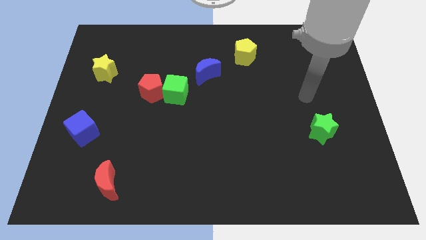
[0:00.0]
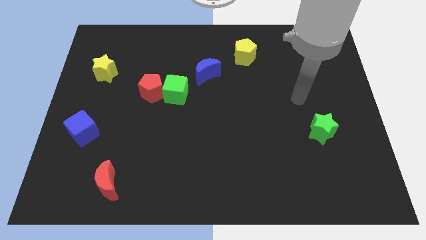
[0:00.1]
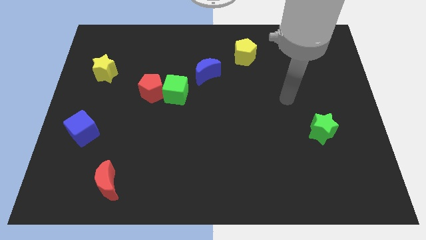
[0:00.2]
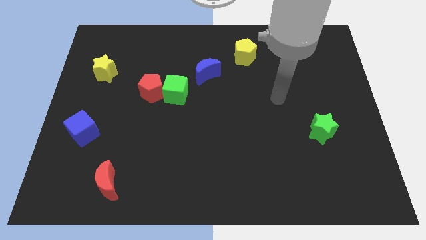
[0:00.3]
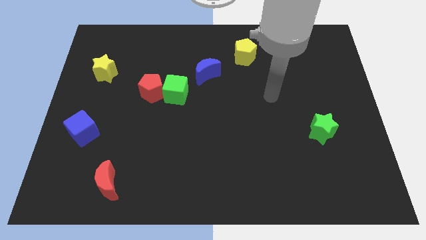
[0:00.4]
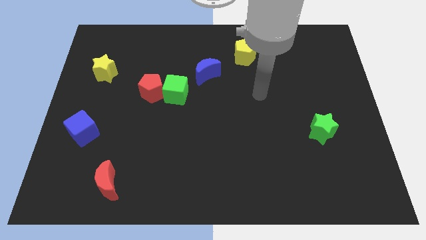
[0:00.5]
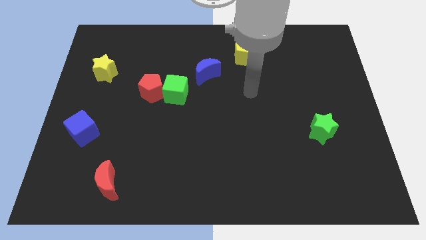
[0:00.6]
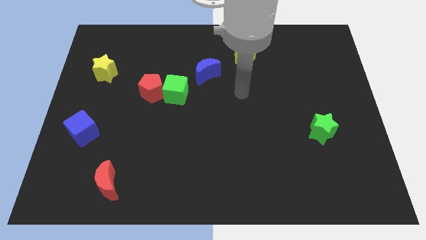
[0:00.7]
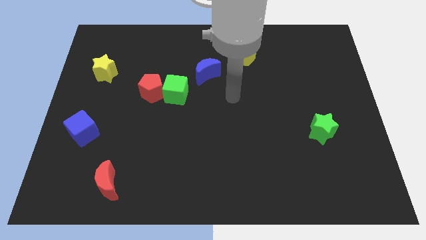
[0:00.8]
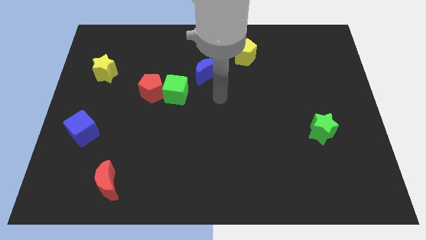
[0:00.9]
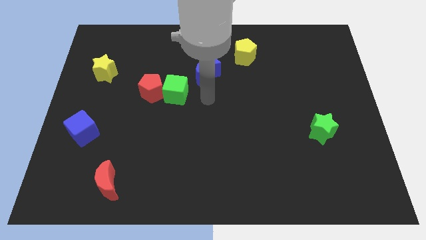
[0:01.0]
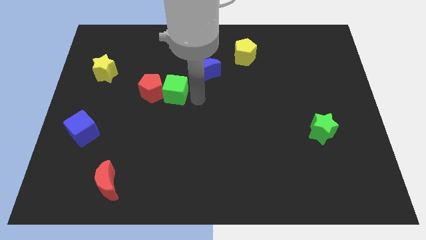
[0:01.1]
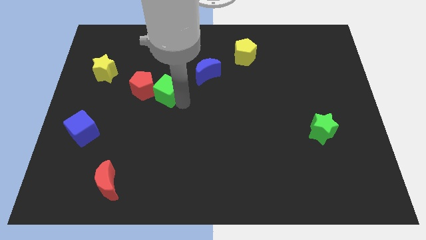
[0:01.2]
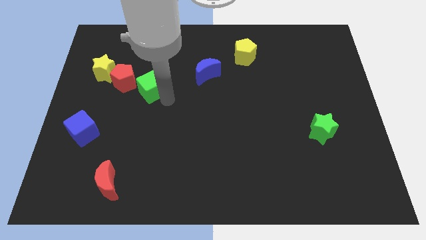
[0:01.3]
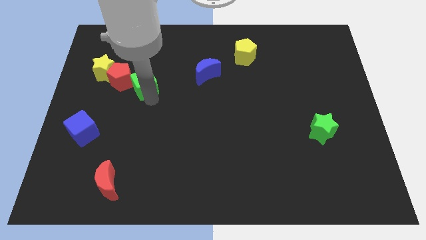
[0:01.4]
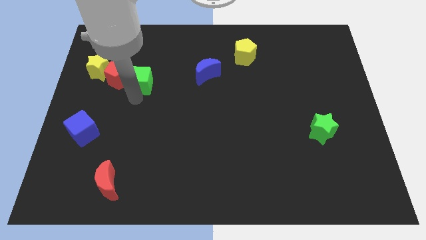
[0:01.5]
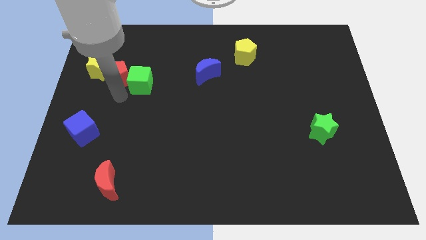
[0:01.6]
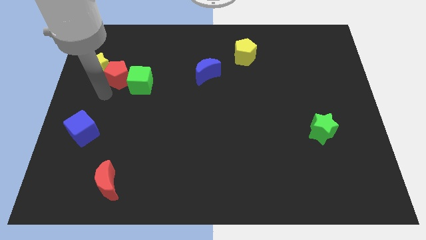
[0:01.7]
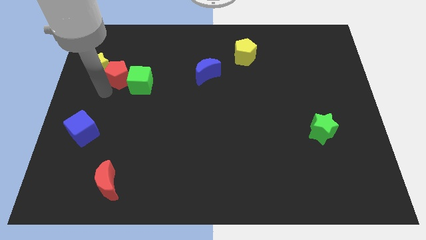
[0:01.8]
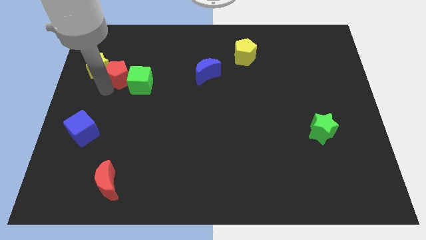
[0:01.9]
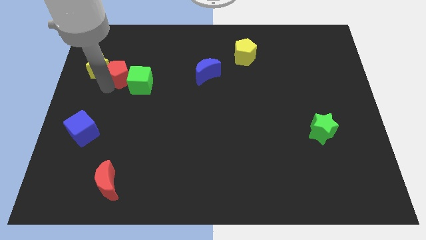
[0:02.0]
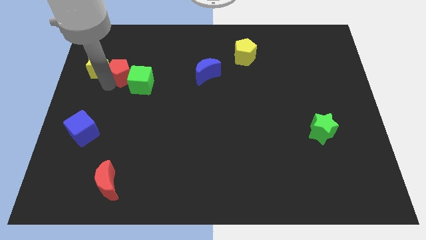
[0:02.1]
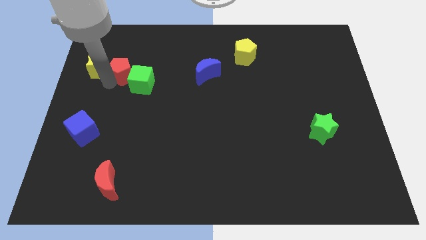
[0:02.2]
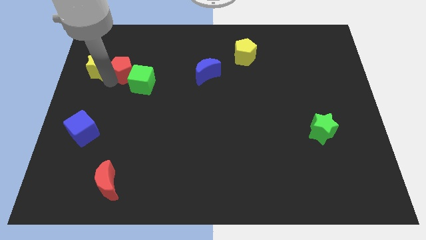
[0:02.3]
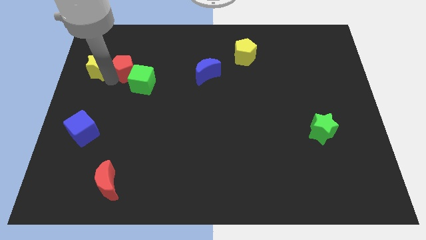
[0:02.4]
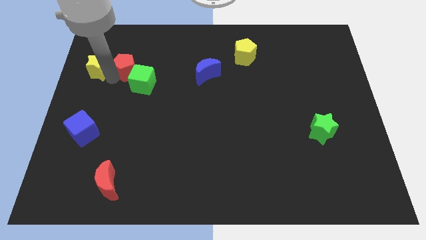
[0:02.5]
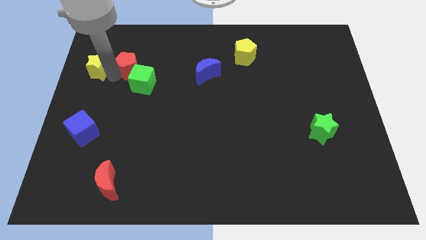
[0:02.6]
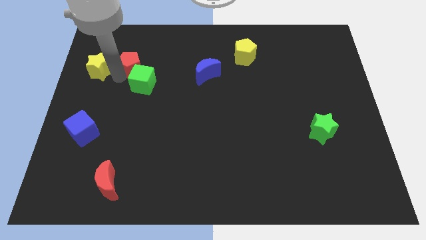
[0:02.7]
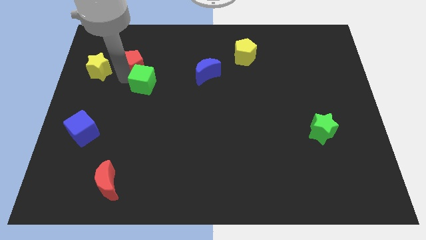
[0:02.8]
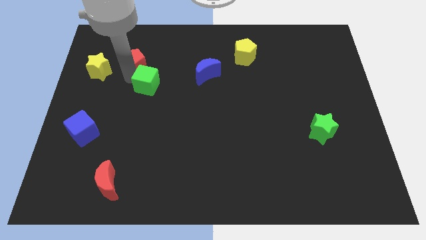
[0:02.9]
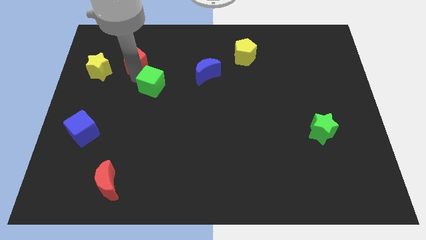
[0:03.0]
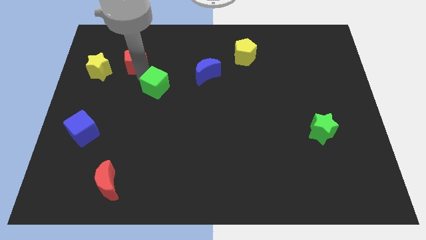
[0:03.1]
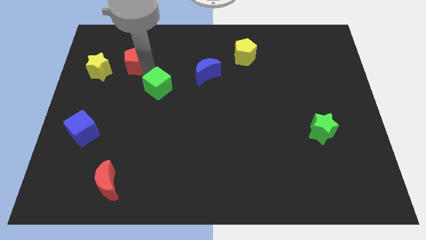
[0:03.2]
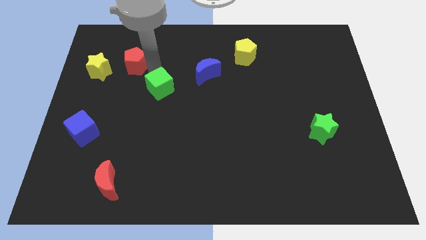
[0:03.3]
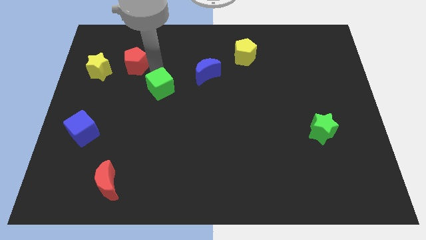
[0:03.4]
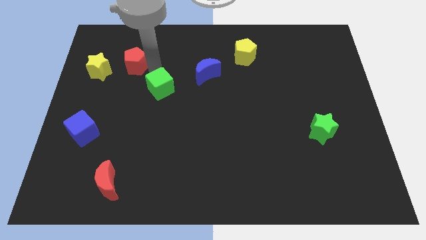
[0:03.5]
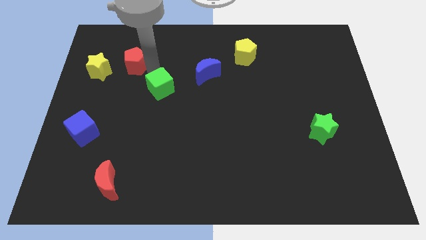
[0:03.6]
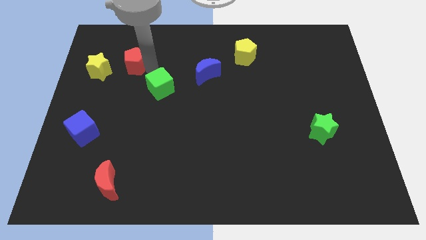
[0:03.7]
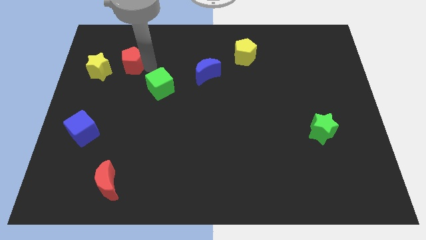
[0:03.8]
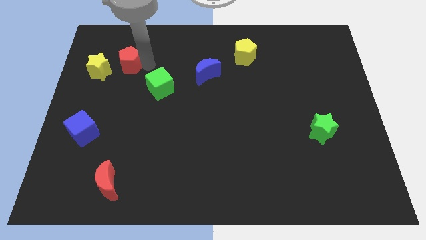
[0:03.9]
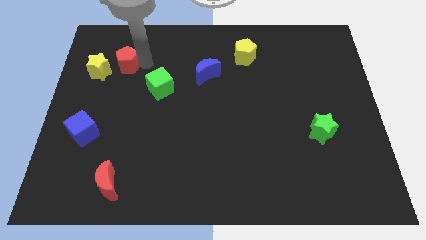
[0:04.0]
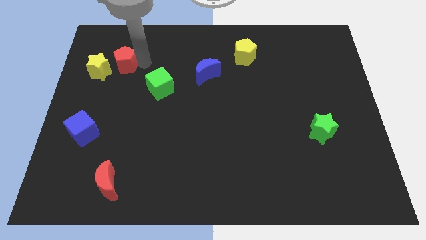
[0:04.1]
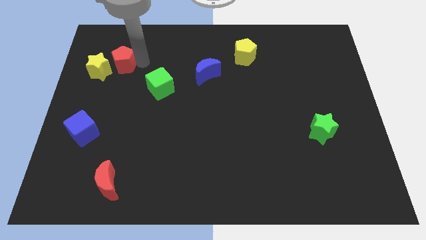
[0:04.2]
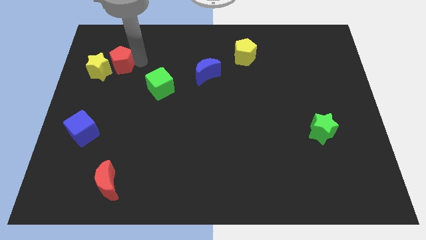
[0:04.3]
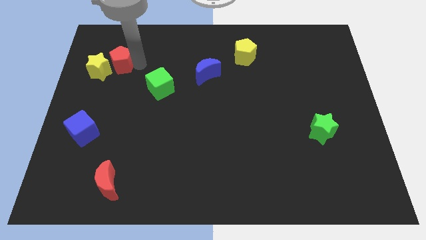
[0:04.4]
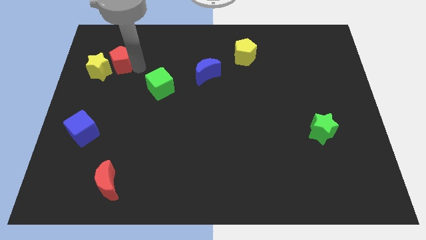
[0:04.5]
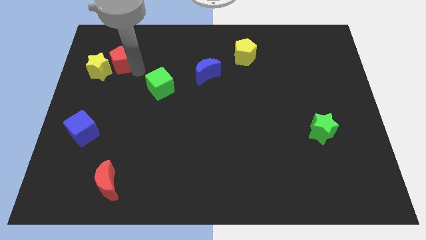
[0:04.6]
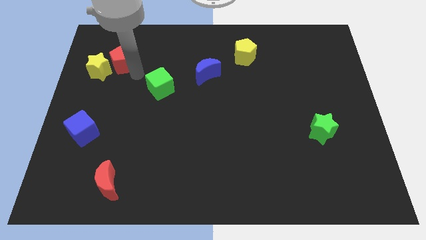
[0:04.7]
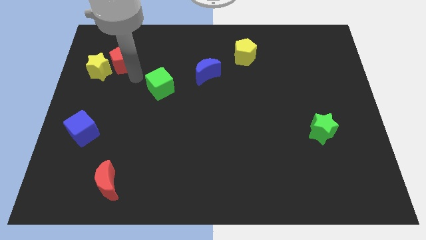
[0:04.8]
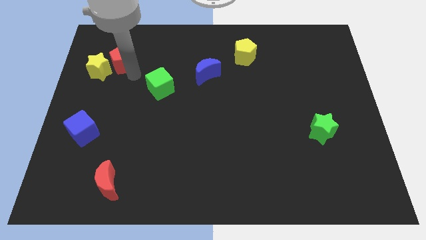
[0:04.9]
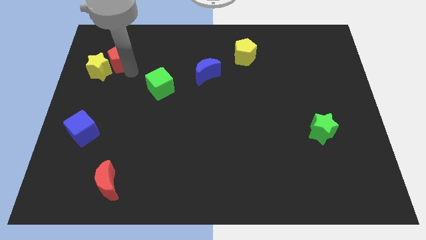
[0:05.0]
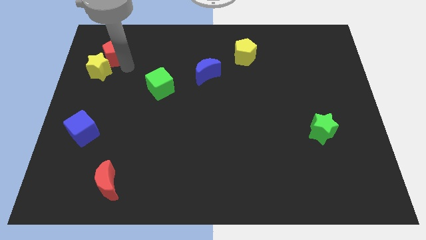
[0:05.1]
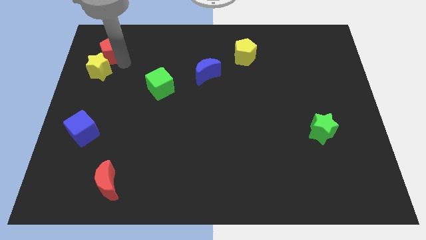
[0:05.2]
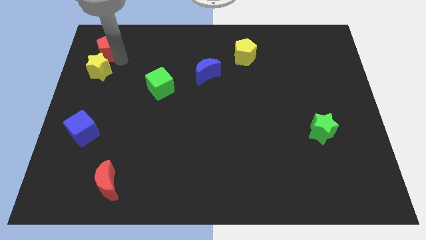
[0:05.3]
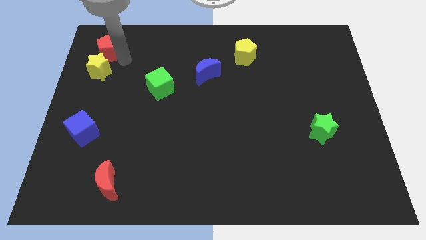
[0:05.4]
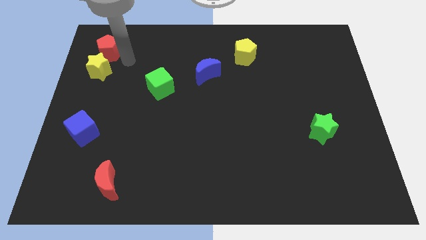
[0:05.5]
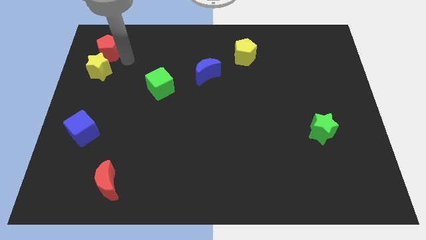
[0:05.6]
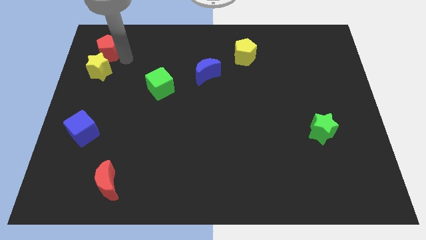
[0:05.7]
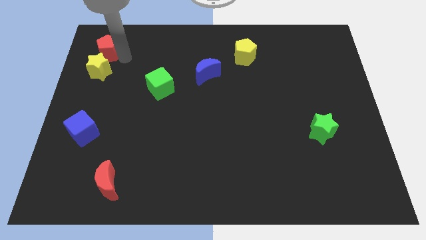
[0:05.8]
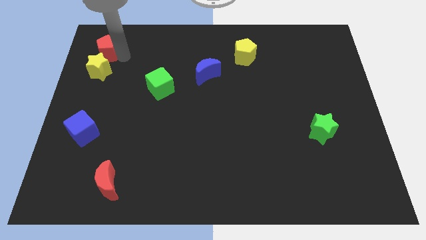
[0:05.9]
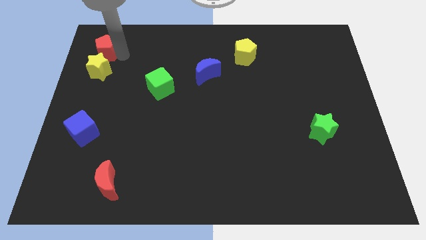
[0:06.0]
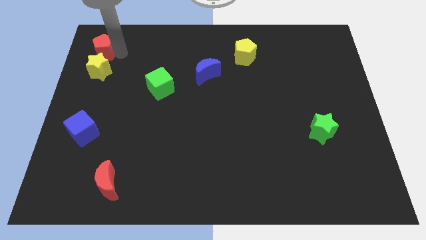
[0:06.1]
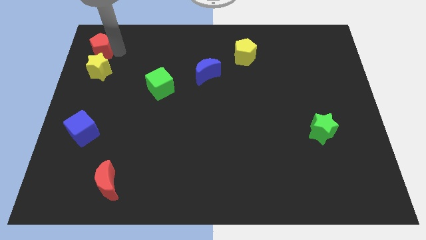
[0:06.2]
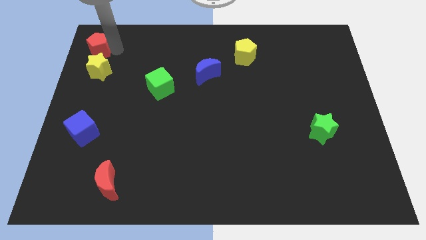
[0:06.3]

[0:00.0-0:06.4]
put the red pentagon to the upper left corner

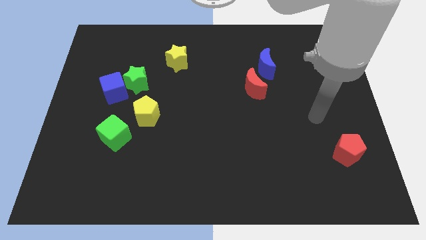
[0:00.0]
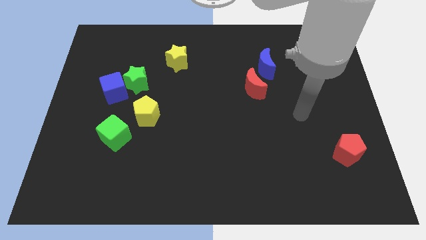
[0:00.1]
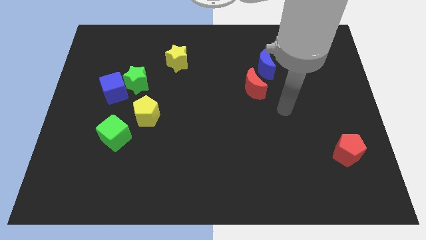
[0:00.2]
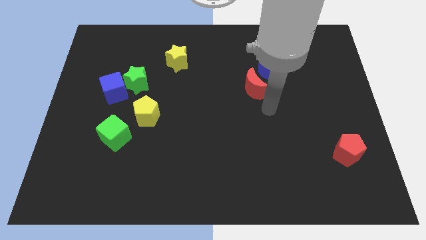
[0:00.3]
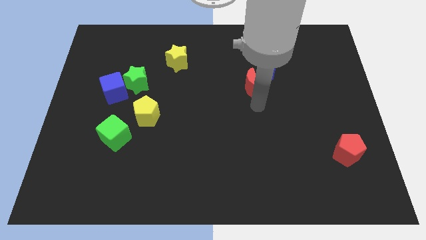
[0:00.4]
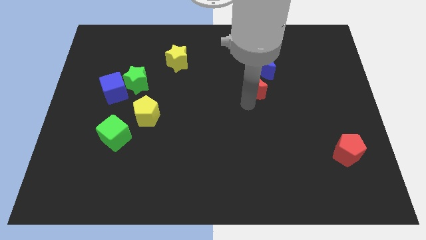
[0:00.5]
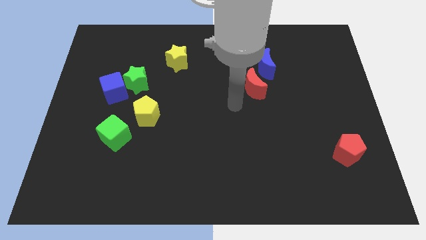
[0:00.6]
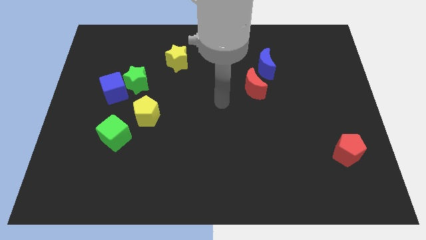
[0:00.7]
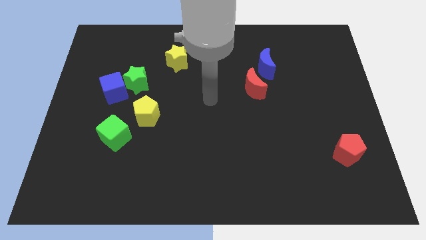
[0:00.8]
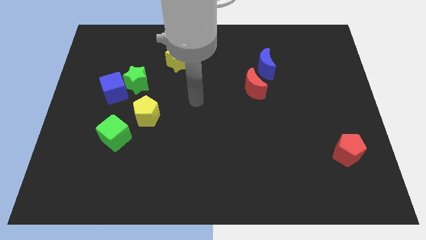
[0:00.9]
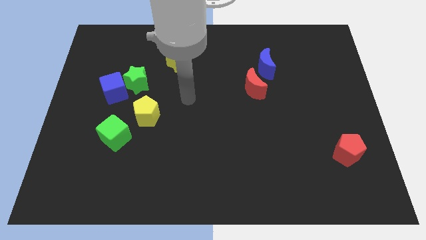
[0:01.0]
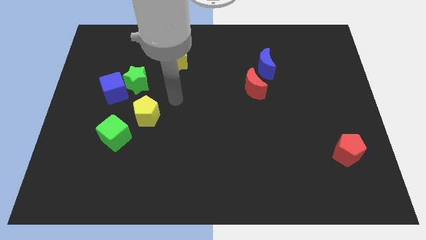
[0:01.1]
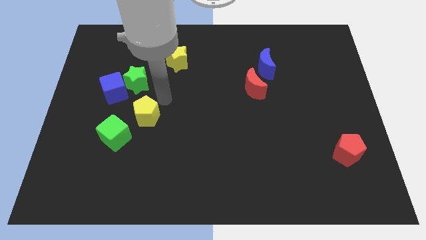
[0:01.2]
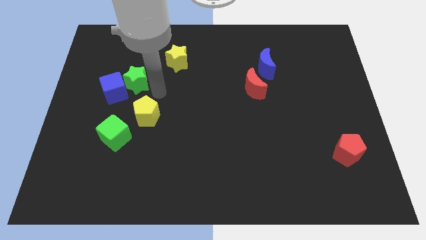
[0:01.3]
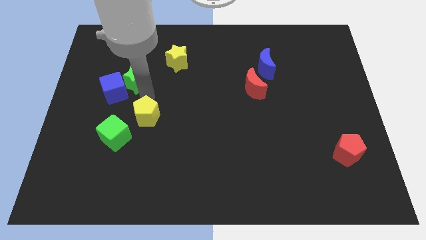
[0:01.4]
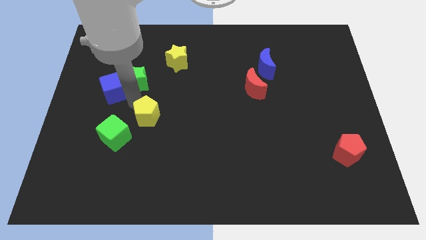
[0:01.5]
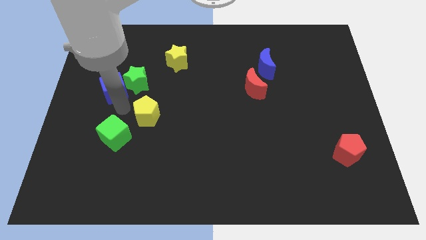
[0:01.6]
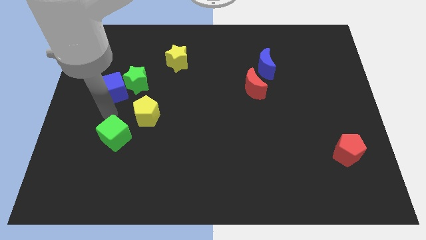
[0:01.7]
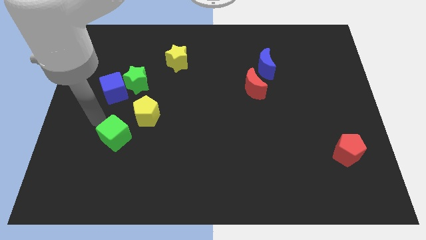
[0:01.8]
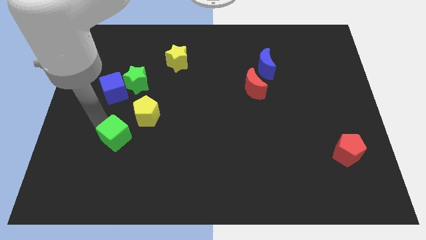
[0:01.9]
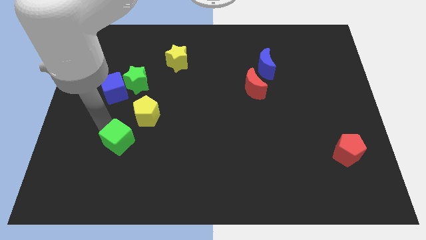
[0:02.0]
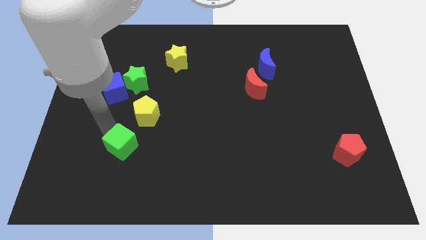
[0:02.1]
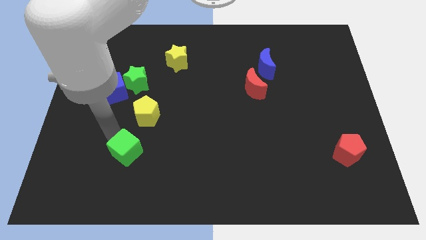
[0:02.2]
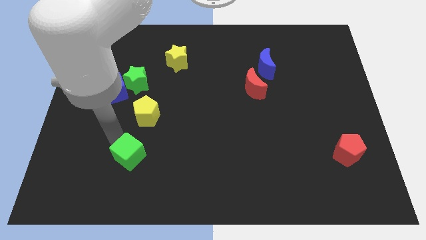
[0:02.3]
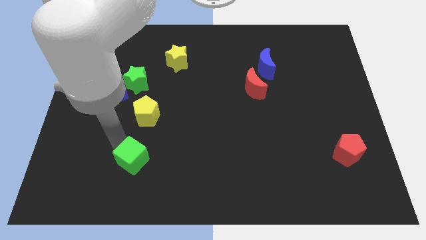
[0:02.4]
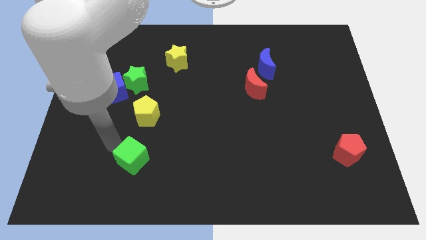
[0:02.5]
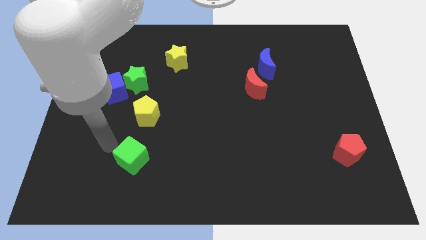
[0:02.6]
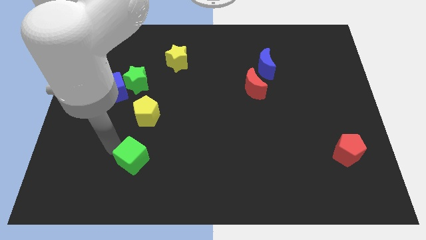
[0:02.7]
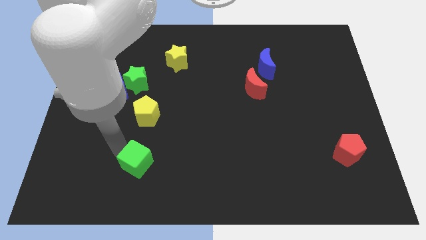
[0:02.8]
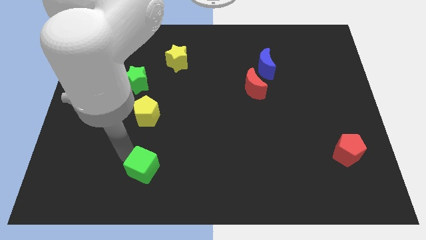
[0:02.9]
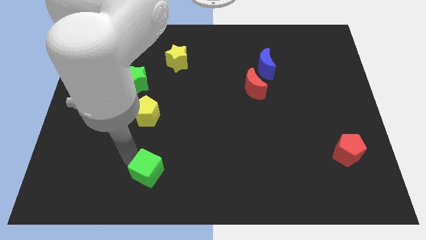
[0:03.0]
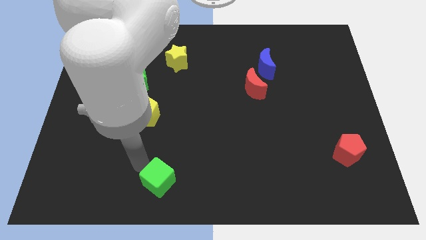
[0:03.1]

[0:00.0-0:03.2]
put the green cube to the bottom
